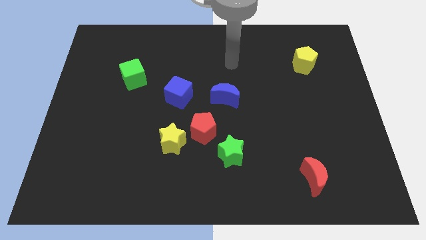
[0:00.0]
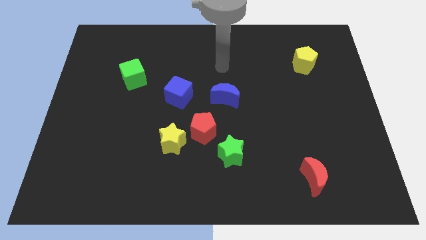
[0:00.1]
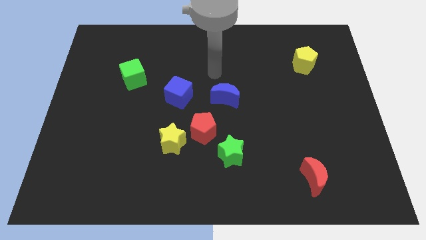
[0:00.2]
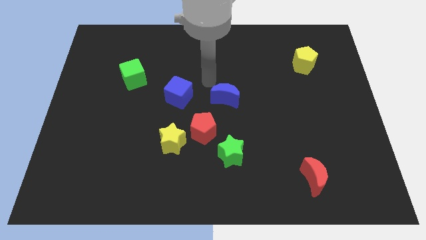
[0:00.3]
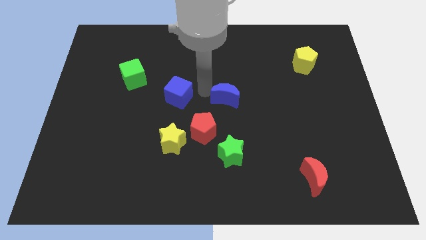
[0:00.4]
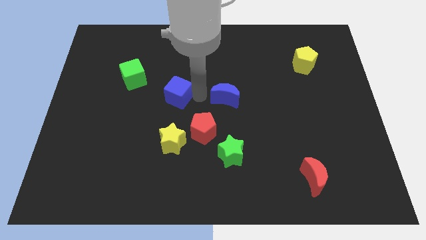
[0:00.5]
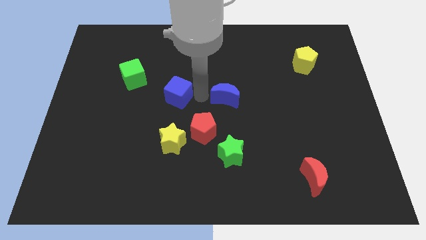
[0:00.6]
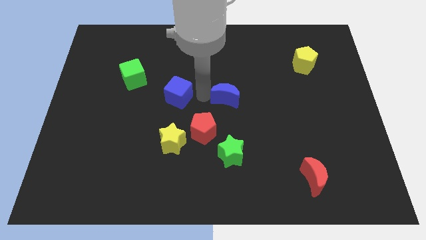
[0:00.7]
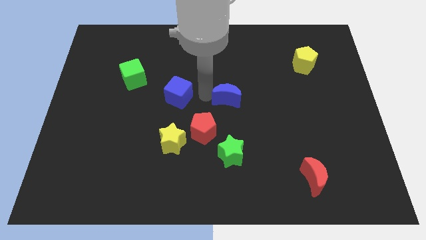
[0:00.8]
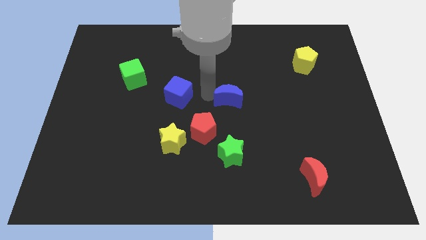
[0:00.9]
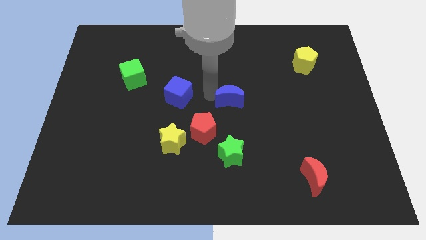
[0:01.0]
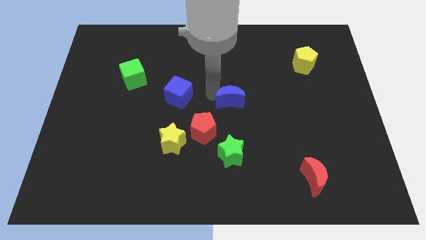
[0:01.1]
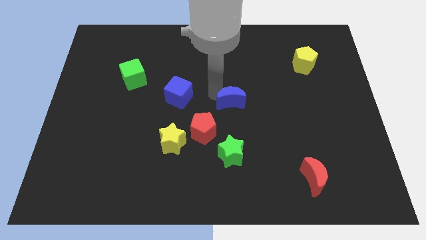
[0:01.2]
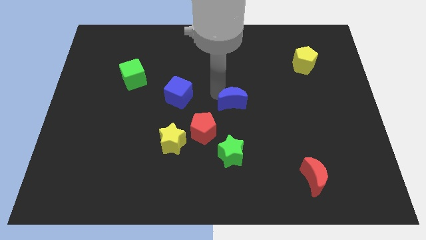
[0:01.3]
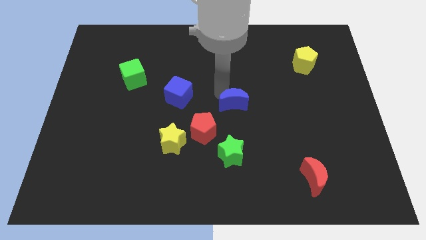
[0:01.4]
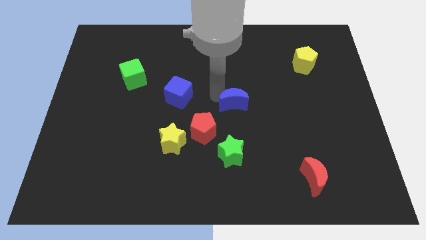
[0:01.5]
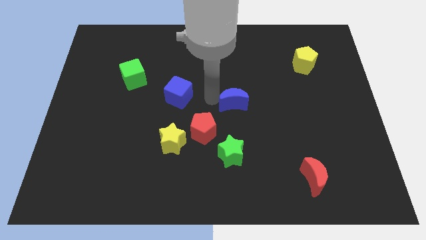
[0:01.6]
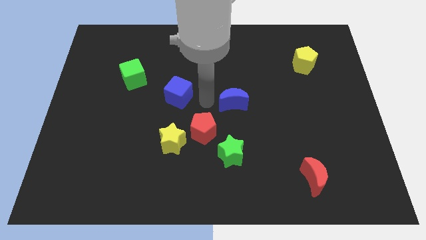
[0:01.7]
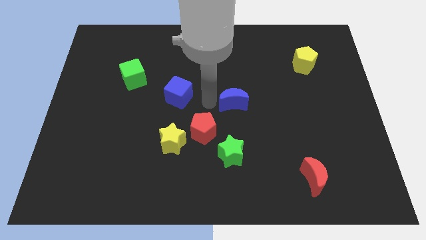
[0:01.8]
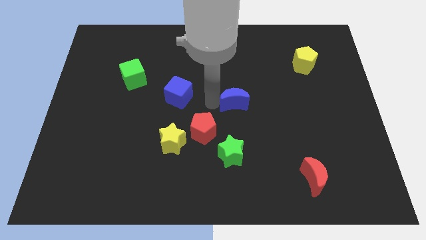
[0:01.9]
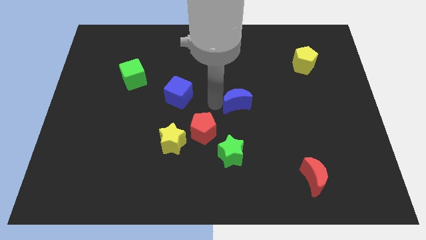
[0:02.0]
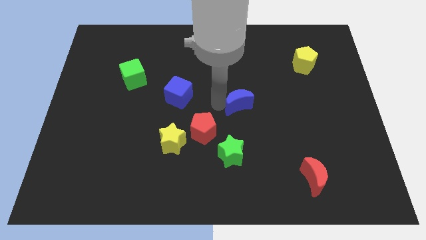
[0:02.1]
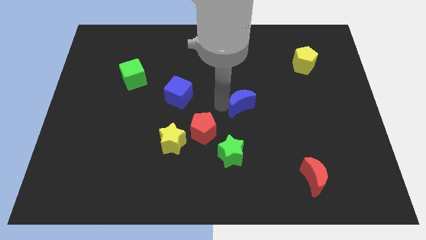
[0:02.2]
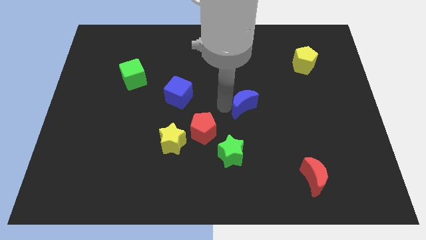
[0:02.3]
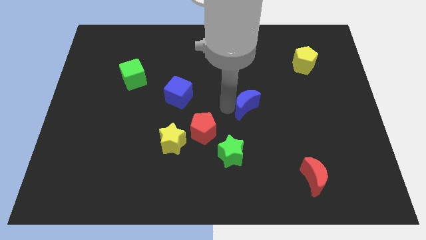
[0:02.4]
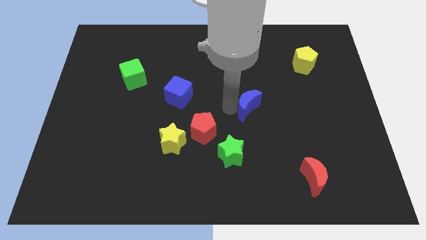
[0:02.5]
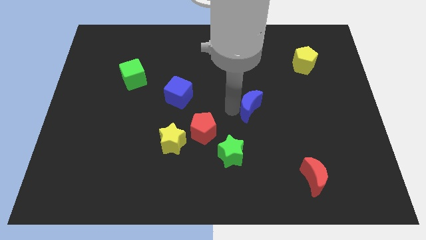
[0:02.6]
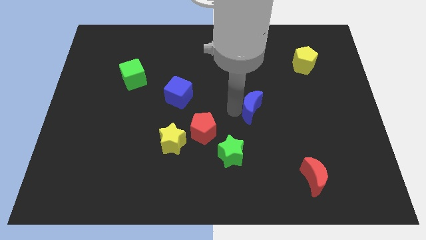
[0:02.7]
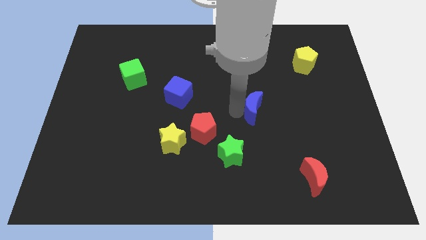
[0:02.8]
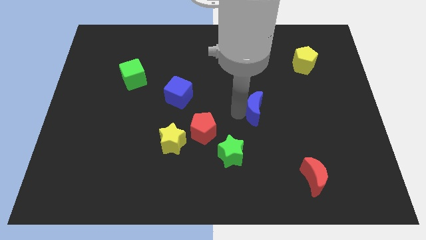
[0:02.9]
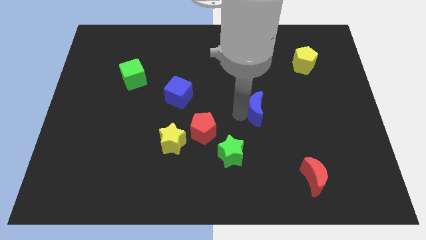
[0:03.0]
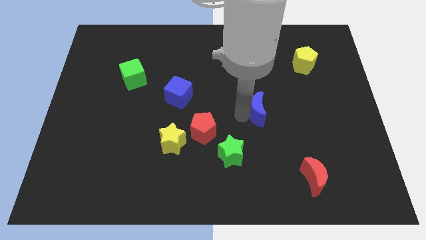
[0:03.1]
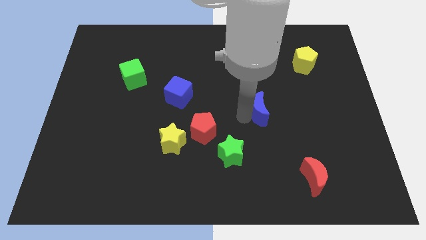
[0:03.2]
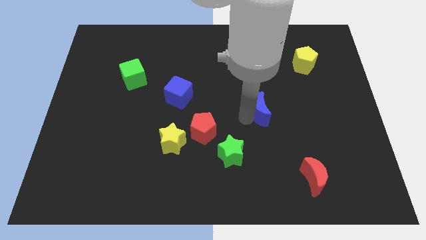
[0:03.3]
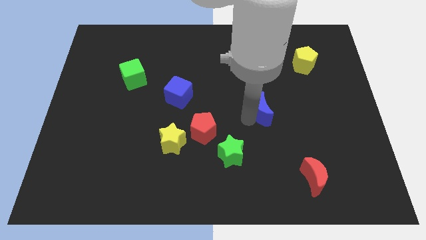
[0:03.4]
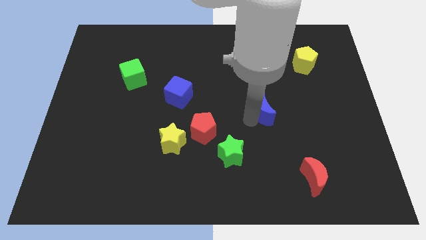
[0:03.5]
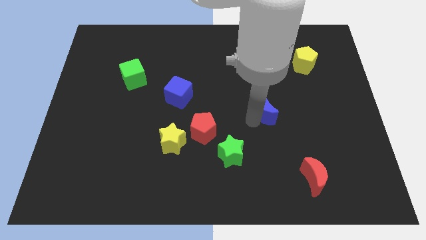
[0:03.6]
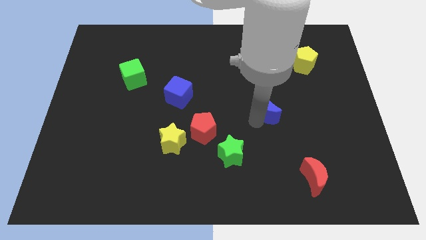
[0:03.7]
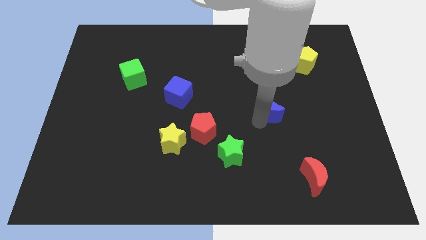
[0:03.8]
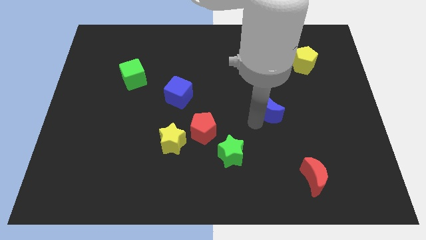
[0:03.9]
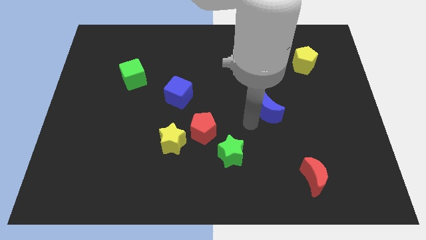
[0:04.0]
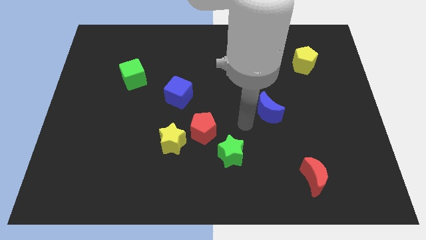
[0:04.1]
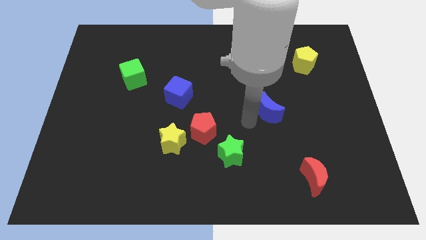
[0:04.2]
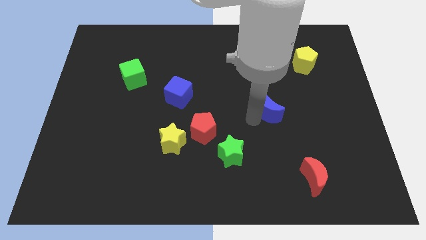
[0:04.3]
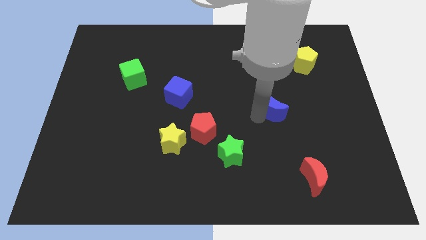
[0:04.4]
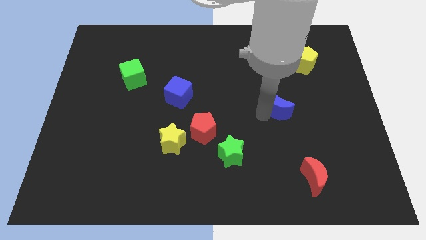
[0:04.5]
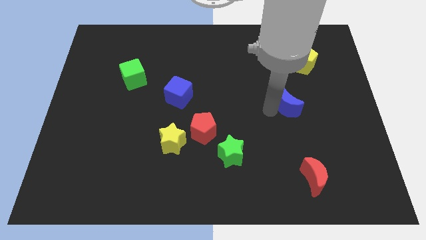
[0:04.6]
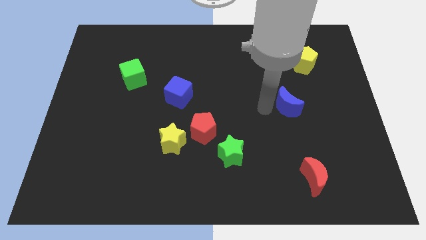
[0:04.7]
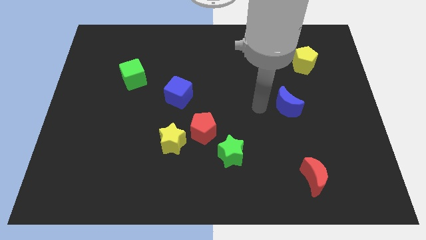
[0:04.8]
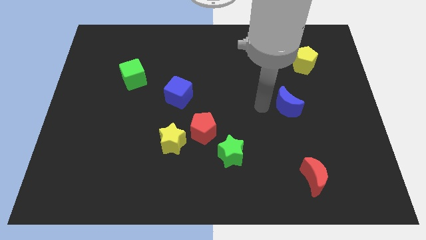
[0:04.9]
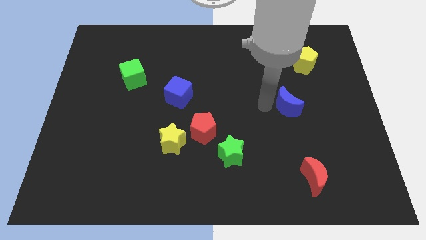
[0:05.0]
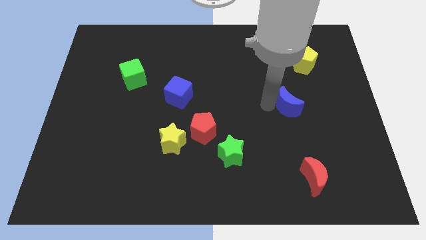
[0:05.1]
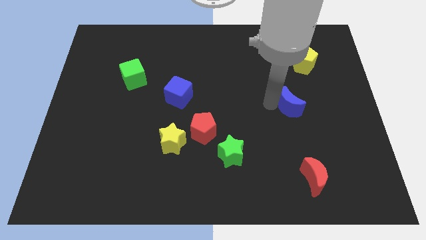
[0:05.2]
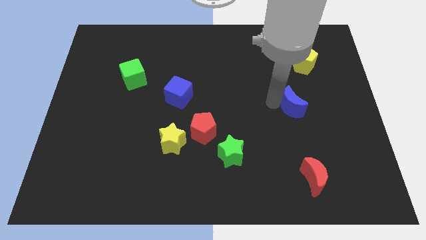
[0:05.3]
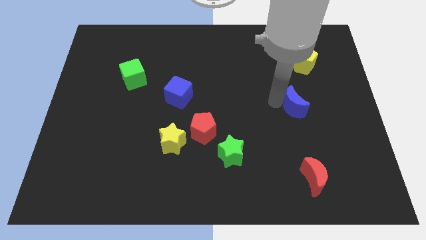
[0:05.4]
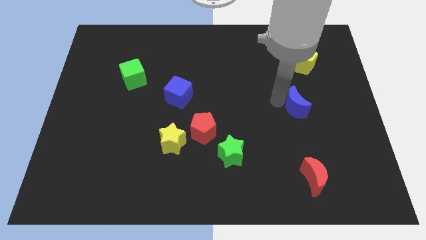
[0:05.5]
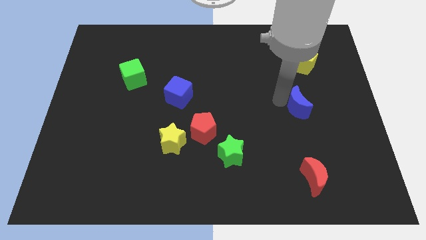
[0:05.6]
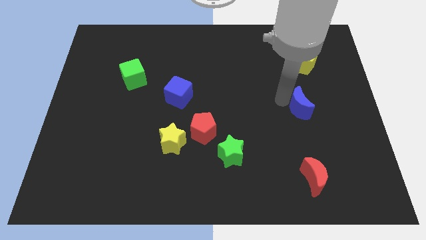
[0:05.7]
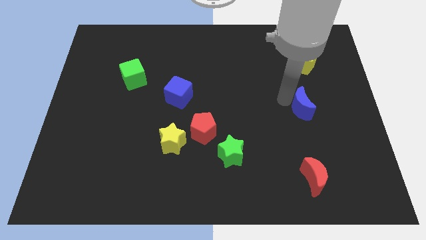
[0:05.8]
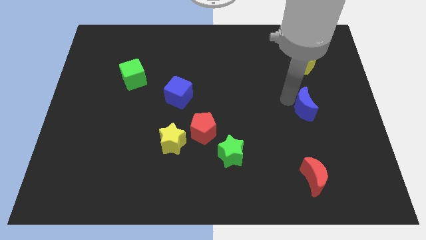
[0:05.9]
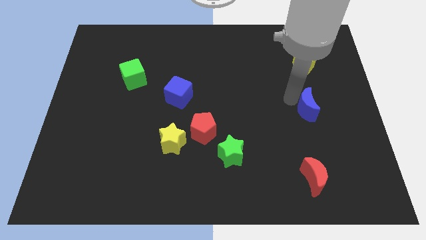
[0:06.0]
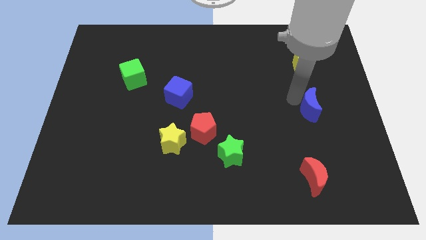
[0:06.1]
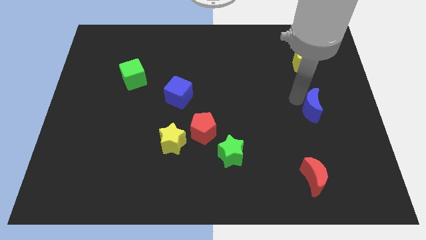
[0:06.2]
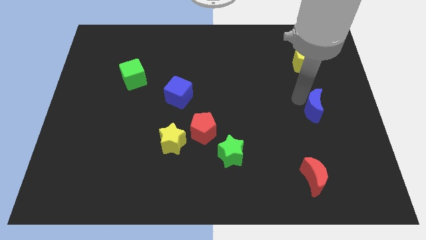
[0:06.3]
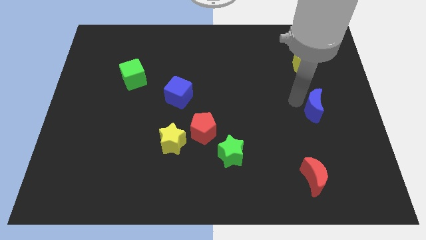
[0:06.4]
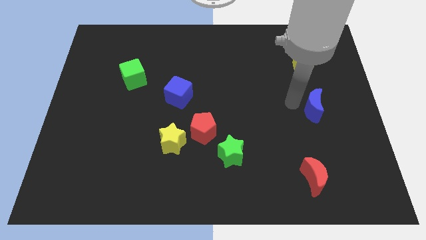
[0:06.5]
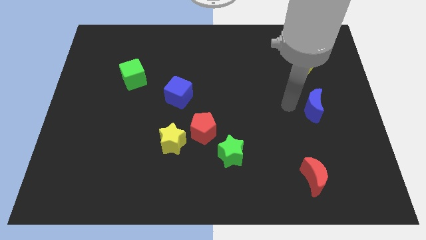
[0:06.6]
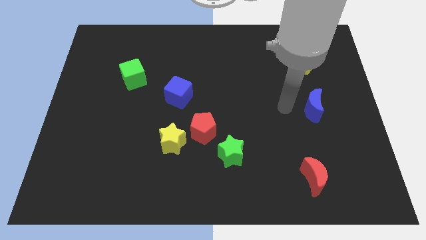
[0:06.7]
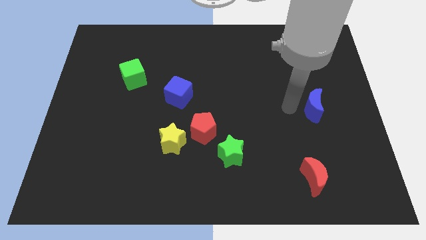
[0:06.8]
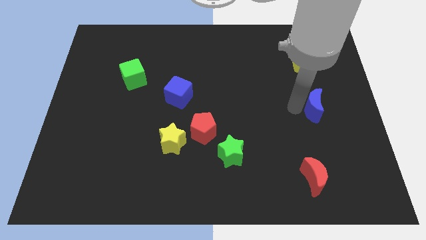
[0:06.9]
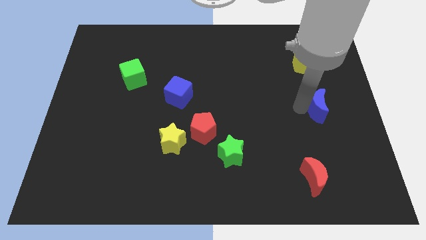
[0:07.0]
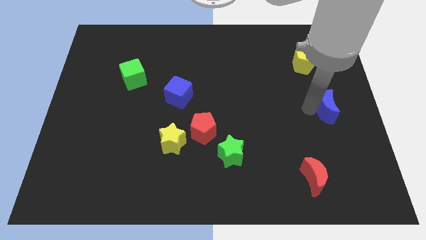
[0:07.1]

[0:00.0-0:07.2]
push the blue moon to the center right
